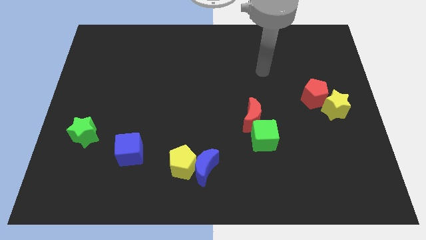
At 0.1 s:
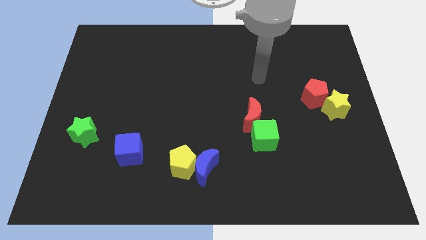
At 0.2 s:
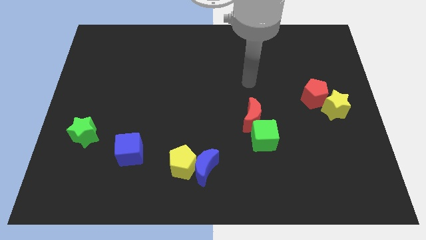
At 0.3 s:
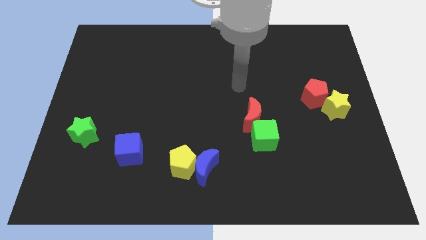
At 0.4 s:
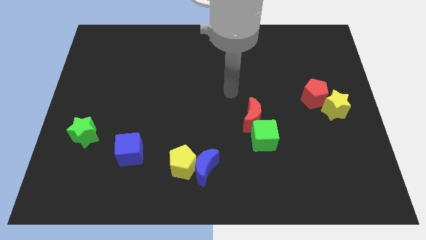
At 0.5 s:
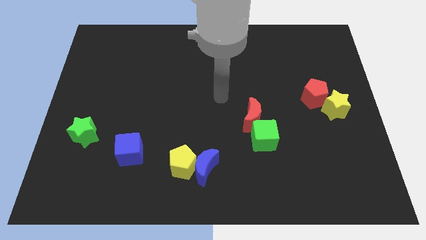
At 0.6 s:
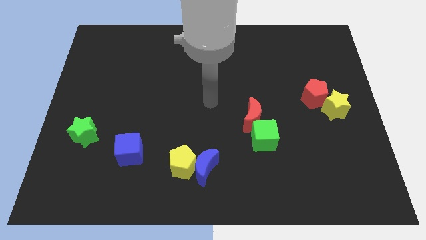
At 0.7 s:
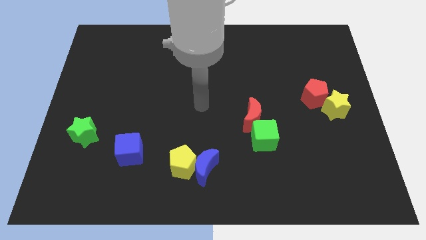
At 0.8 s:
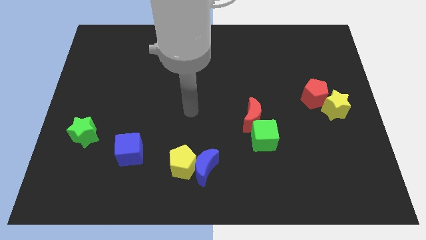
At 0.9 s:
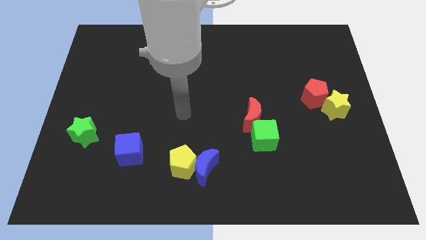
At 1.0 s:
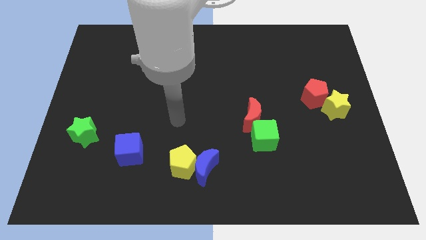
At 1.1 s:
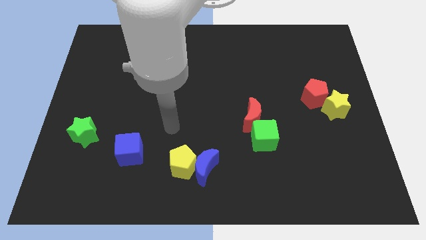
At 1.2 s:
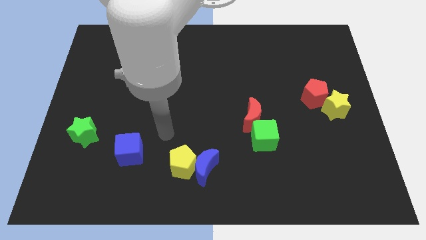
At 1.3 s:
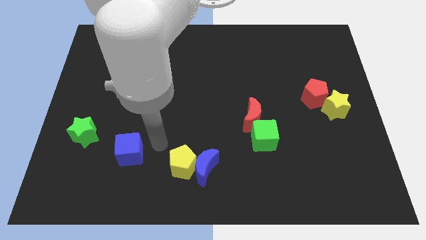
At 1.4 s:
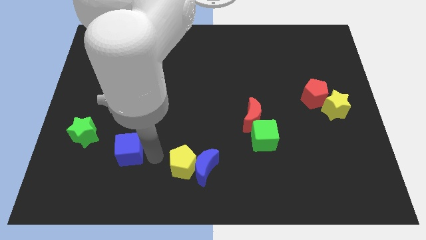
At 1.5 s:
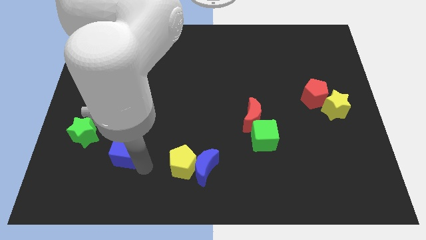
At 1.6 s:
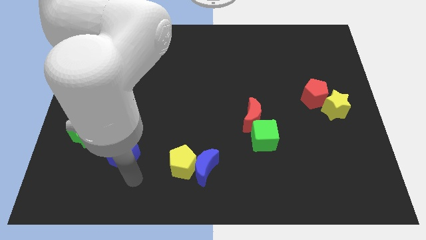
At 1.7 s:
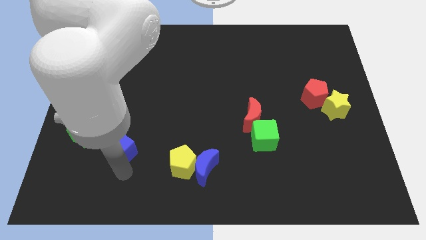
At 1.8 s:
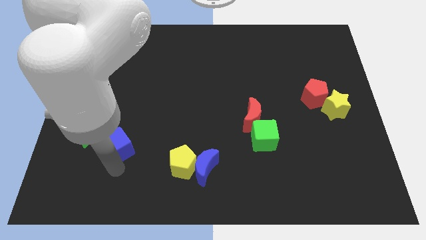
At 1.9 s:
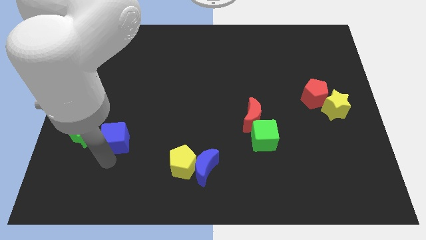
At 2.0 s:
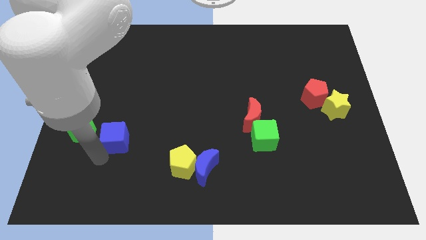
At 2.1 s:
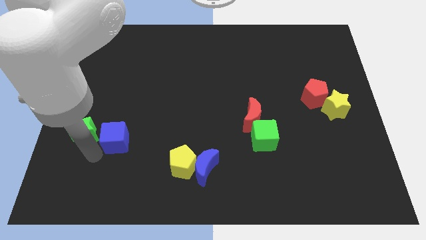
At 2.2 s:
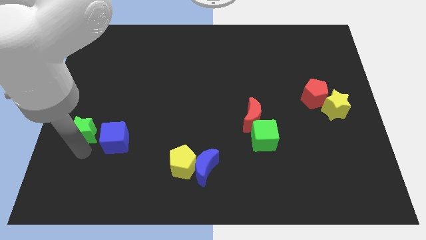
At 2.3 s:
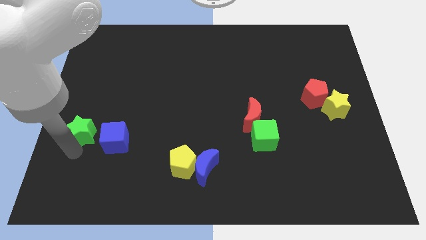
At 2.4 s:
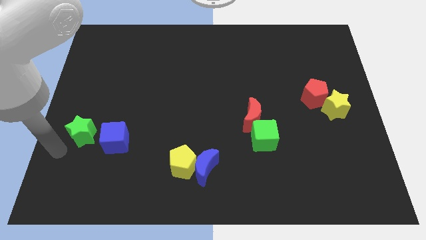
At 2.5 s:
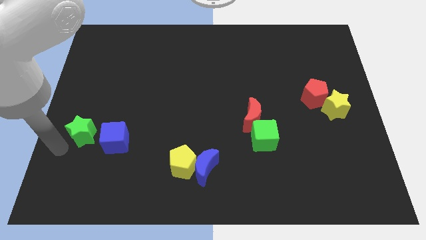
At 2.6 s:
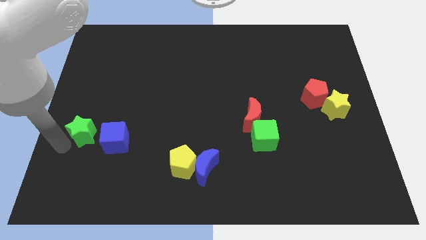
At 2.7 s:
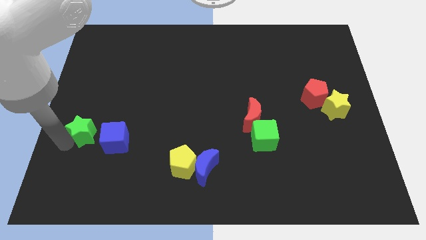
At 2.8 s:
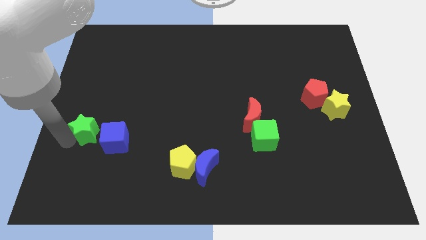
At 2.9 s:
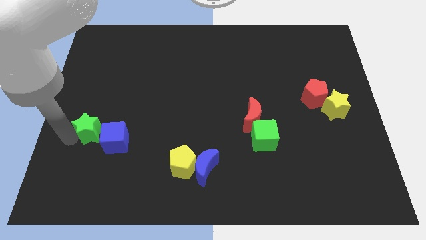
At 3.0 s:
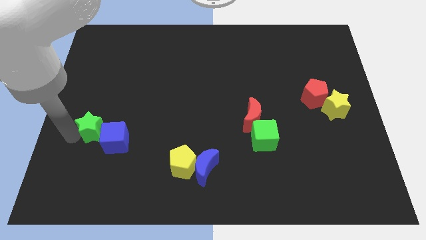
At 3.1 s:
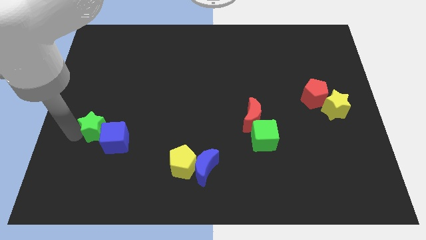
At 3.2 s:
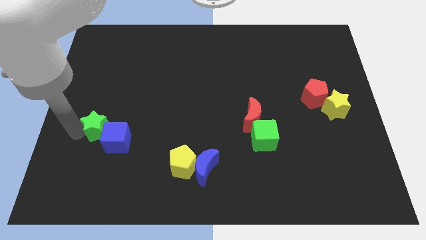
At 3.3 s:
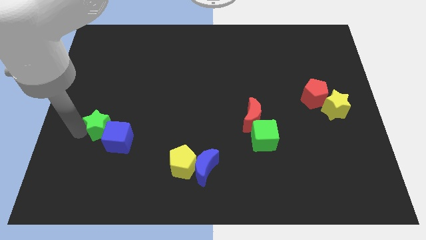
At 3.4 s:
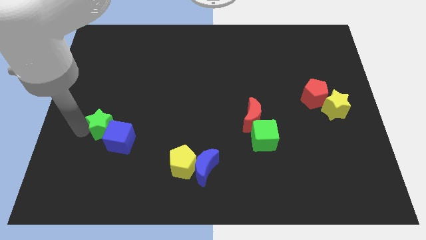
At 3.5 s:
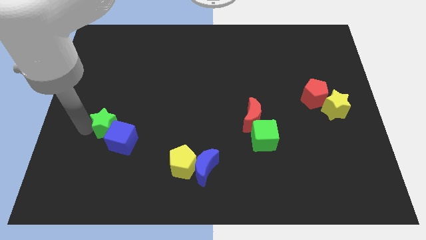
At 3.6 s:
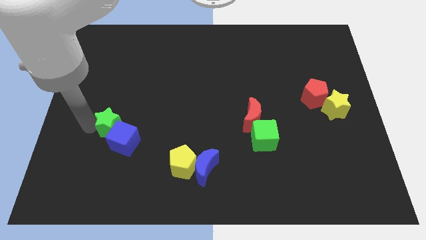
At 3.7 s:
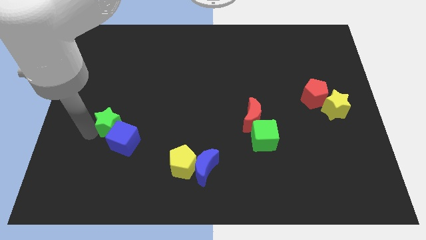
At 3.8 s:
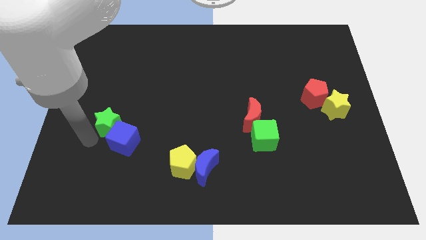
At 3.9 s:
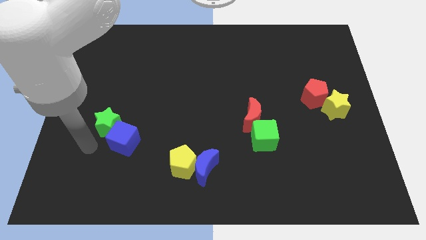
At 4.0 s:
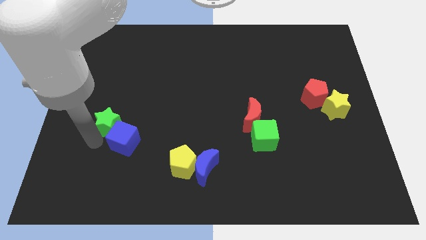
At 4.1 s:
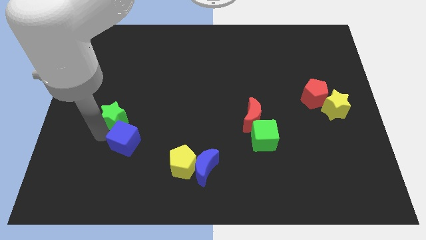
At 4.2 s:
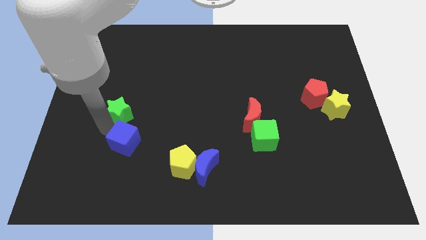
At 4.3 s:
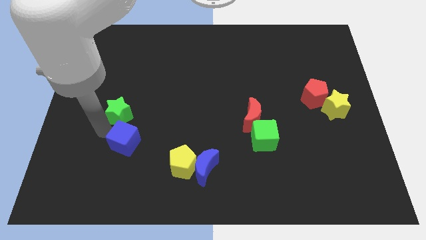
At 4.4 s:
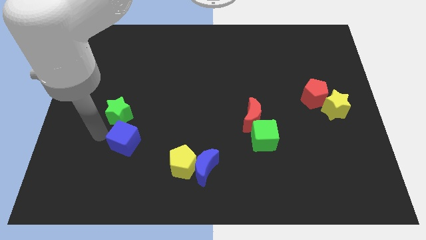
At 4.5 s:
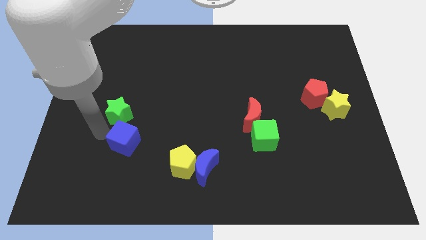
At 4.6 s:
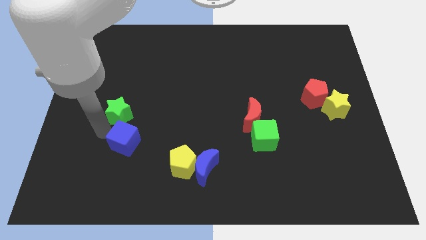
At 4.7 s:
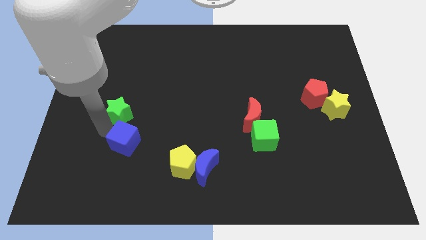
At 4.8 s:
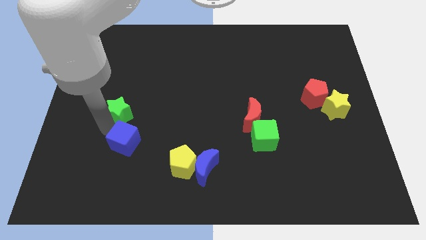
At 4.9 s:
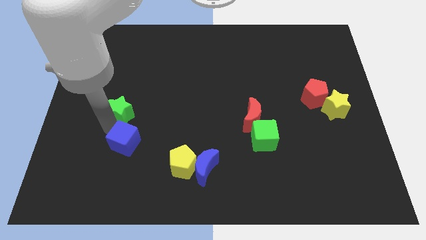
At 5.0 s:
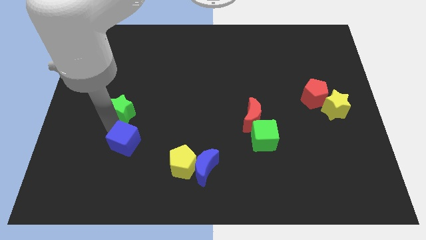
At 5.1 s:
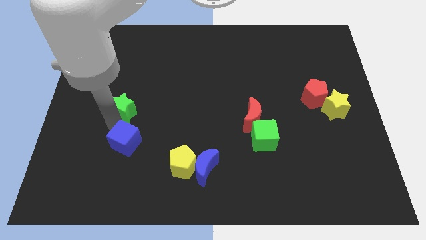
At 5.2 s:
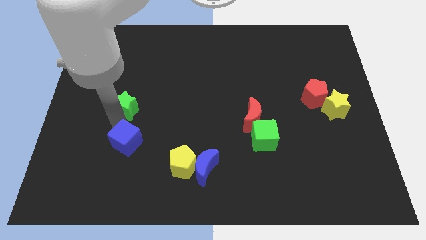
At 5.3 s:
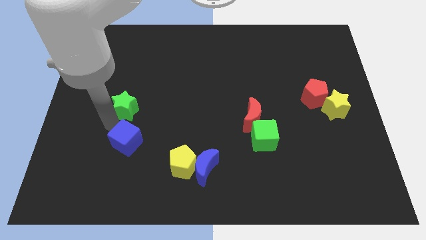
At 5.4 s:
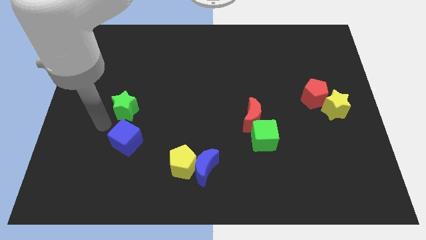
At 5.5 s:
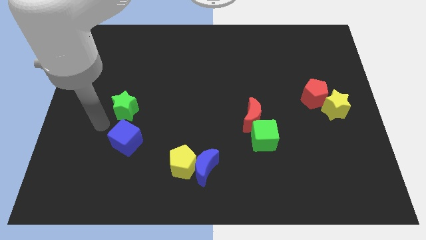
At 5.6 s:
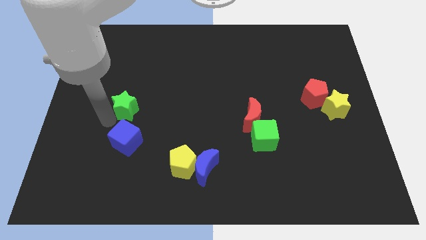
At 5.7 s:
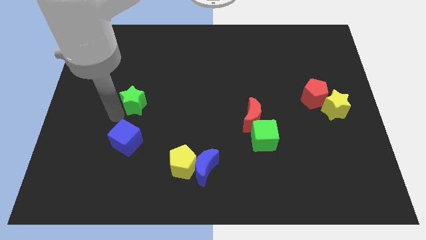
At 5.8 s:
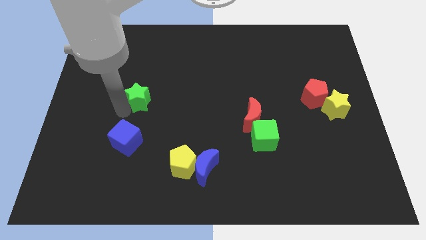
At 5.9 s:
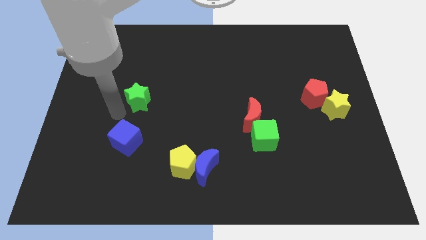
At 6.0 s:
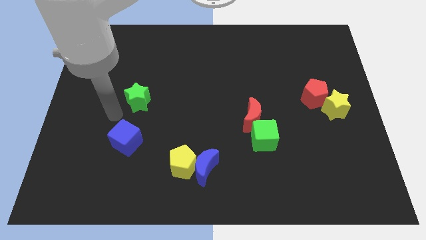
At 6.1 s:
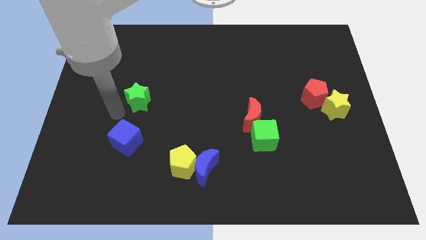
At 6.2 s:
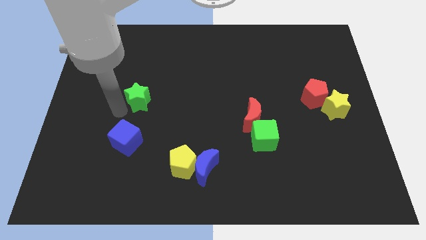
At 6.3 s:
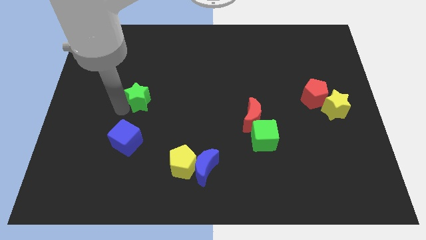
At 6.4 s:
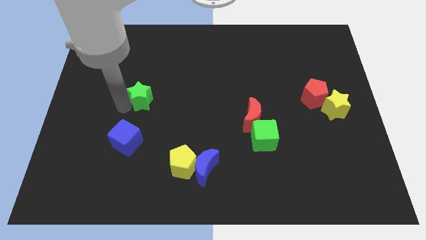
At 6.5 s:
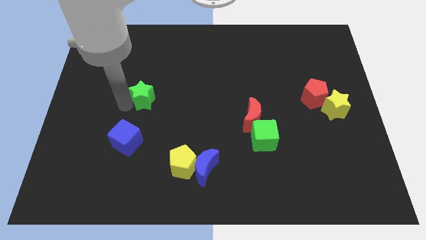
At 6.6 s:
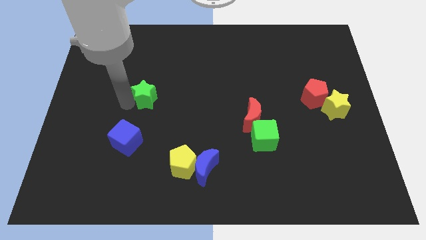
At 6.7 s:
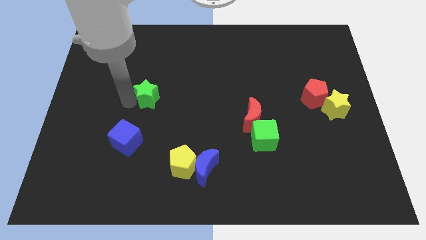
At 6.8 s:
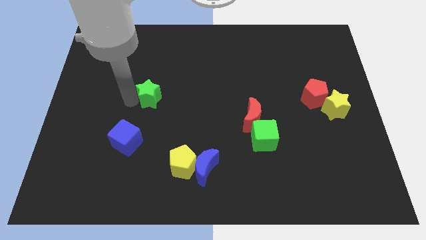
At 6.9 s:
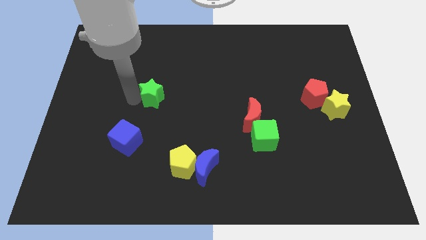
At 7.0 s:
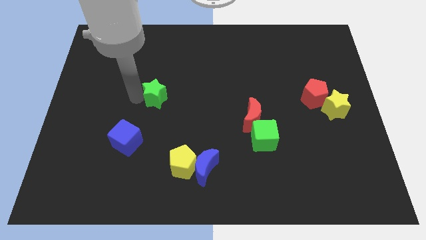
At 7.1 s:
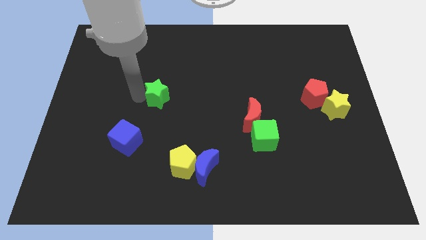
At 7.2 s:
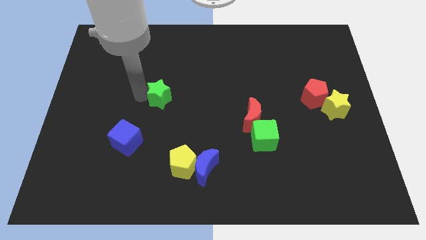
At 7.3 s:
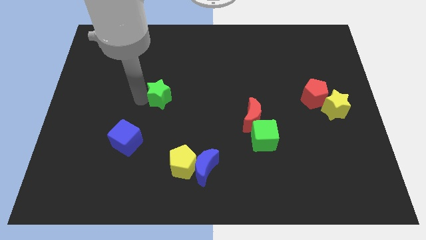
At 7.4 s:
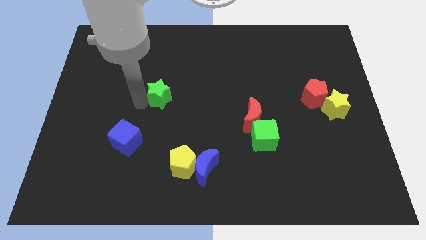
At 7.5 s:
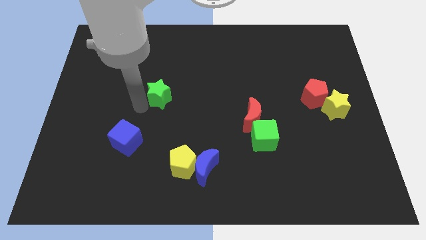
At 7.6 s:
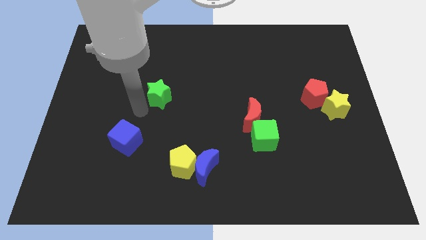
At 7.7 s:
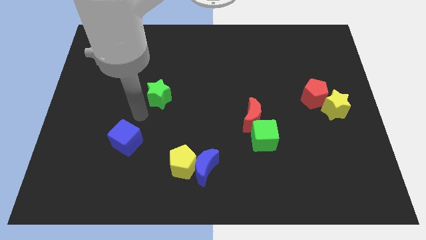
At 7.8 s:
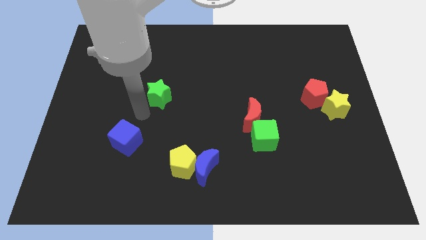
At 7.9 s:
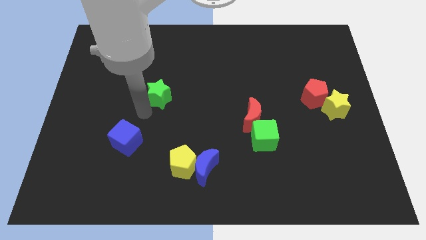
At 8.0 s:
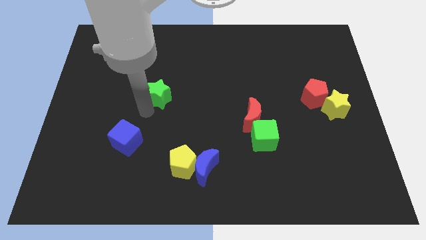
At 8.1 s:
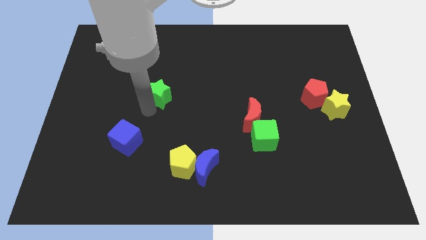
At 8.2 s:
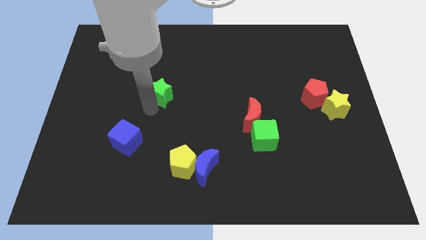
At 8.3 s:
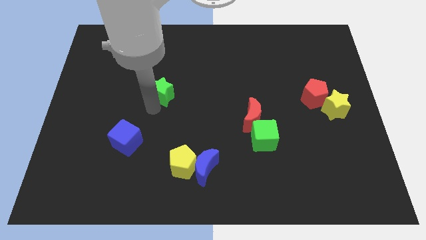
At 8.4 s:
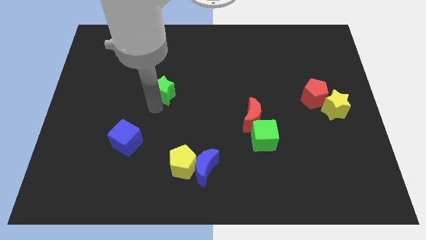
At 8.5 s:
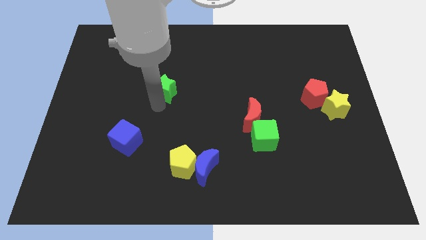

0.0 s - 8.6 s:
move the green star up and to the right diagonally
